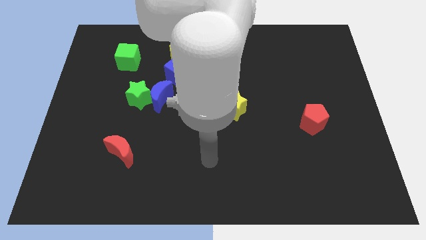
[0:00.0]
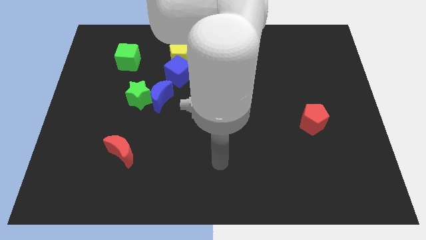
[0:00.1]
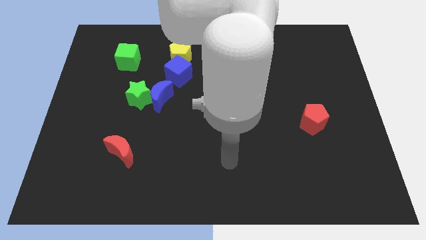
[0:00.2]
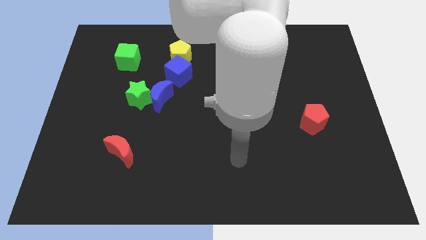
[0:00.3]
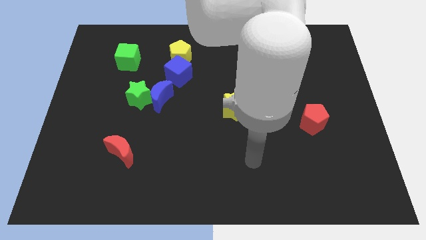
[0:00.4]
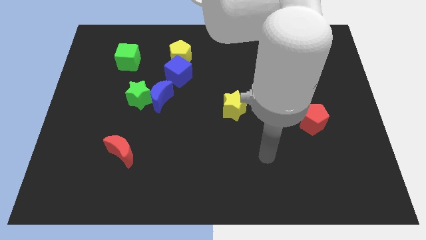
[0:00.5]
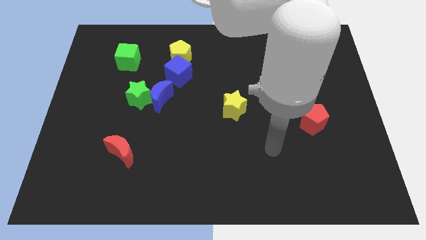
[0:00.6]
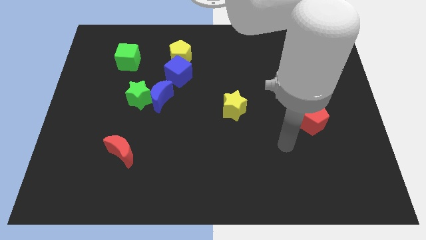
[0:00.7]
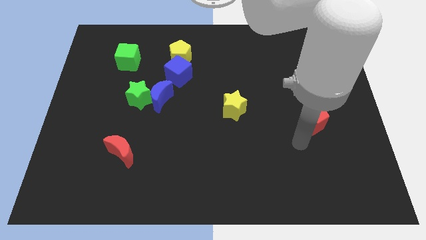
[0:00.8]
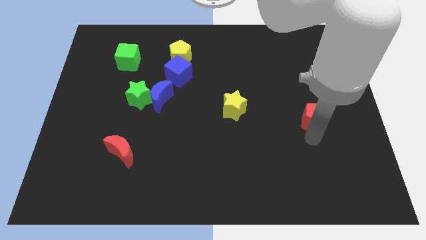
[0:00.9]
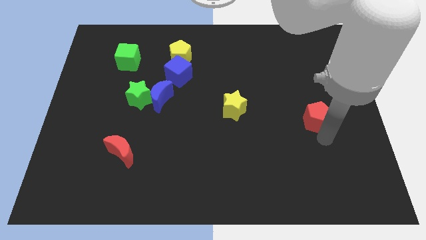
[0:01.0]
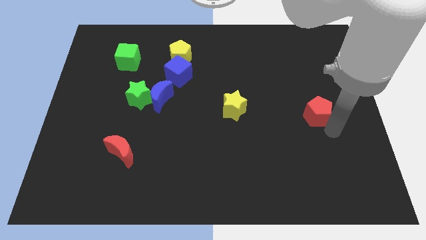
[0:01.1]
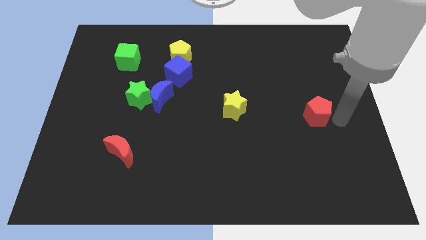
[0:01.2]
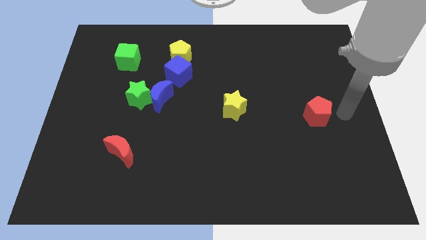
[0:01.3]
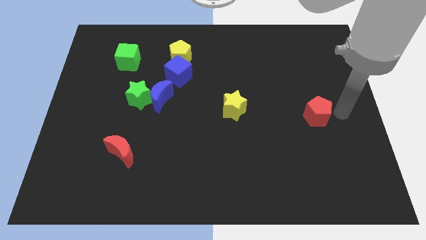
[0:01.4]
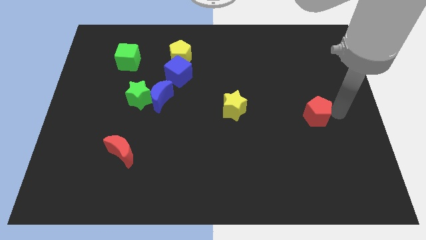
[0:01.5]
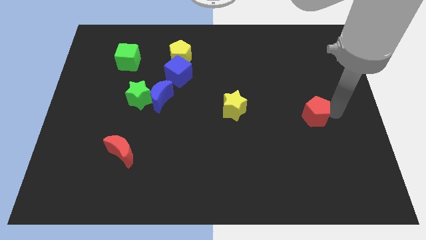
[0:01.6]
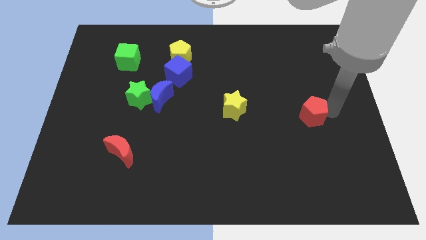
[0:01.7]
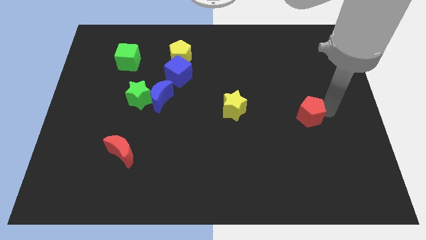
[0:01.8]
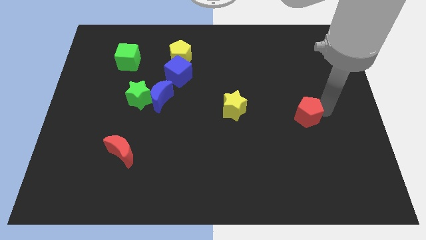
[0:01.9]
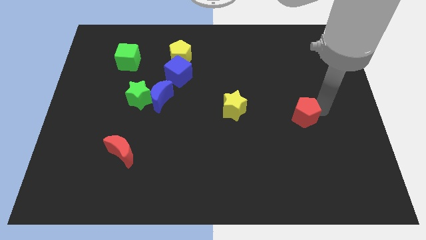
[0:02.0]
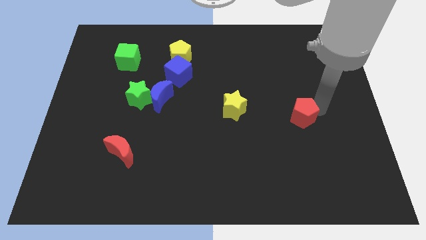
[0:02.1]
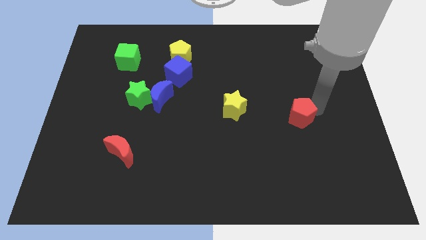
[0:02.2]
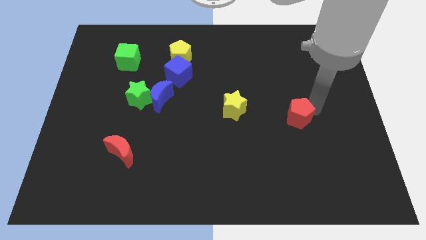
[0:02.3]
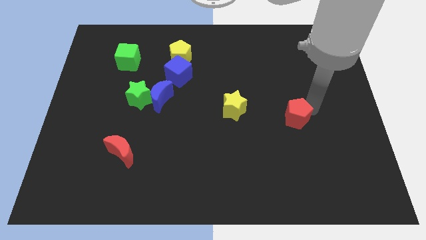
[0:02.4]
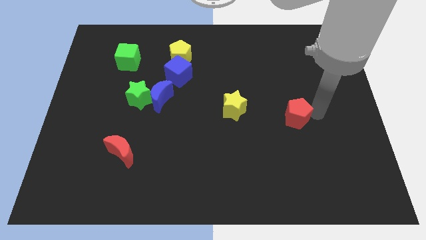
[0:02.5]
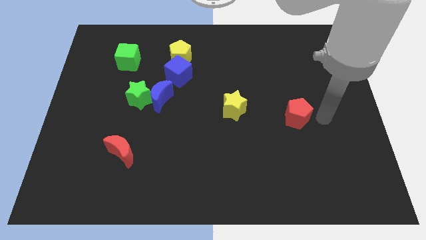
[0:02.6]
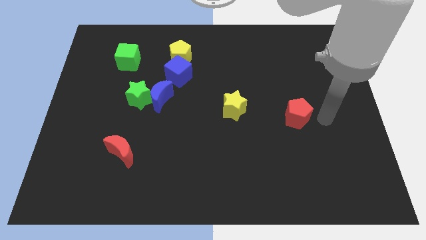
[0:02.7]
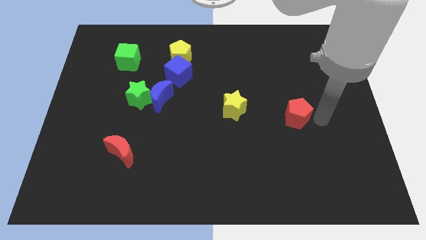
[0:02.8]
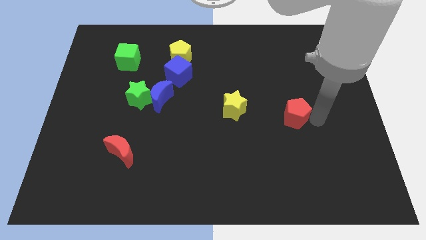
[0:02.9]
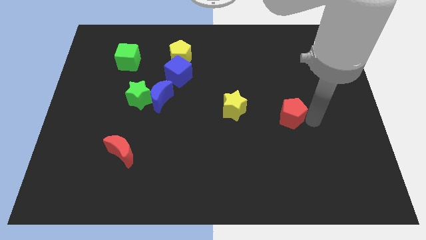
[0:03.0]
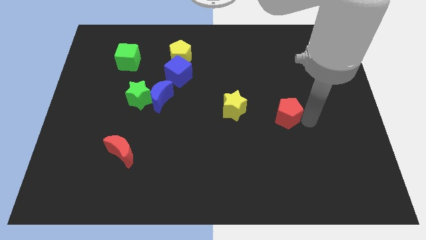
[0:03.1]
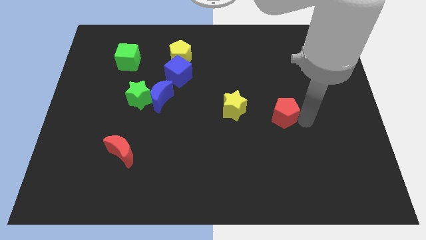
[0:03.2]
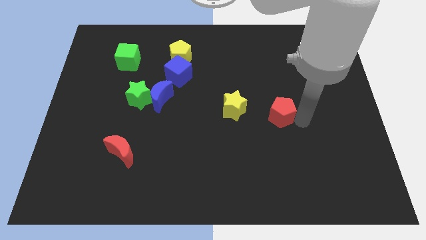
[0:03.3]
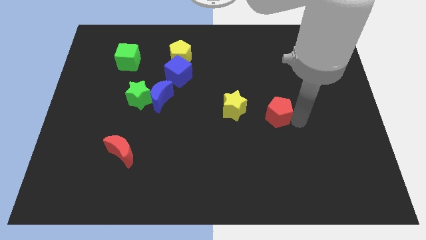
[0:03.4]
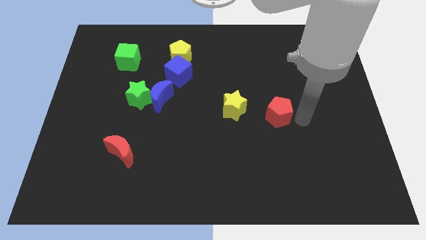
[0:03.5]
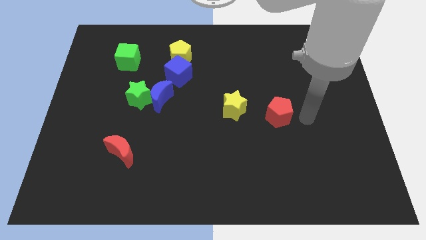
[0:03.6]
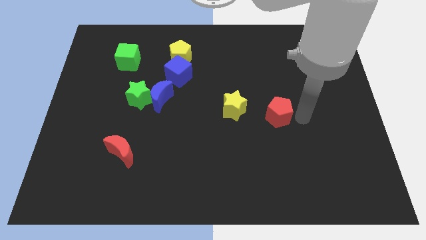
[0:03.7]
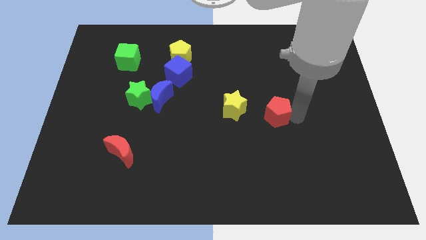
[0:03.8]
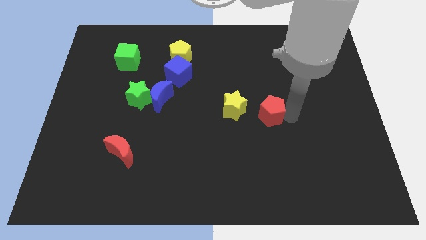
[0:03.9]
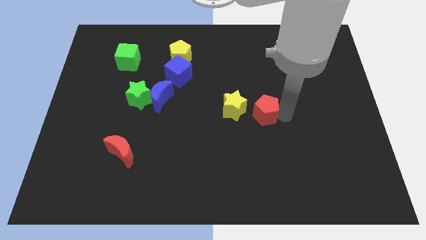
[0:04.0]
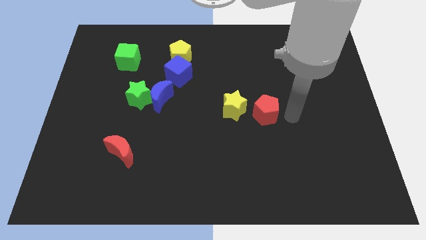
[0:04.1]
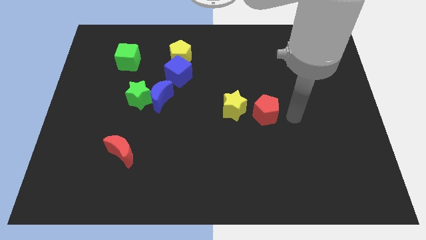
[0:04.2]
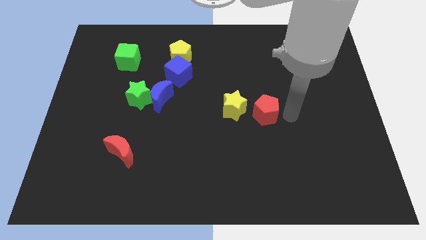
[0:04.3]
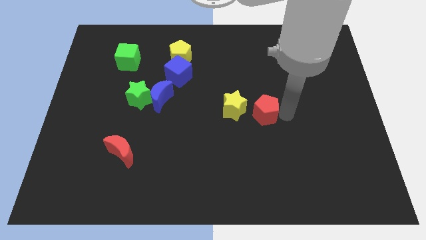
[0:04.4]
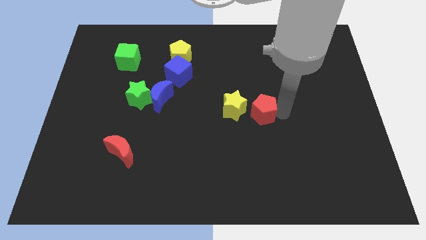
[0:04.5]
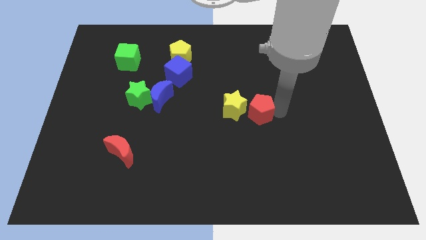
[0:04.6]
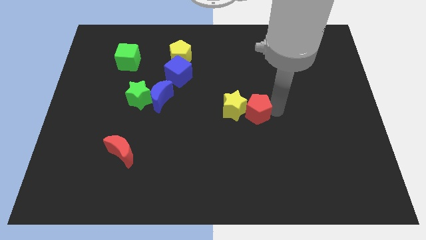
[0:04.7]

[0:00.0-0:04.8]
move the red pentagon close to the yellow star

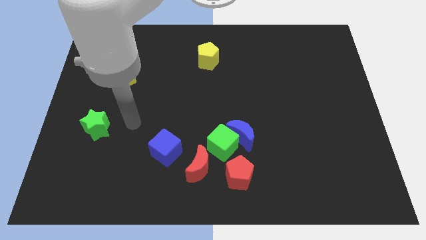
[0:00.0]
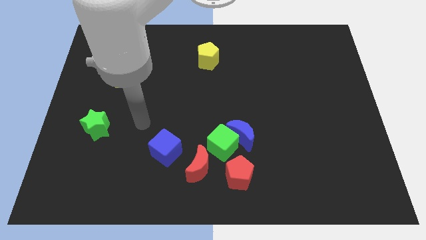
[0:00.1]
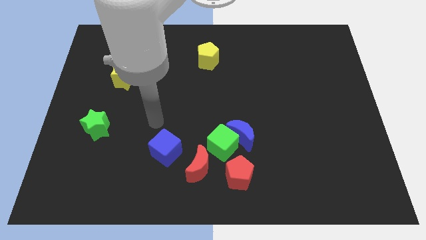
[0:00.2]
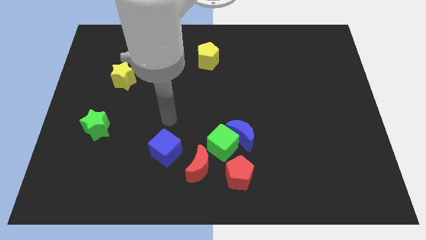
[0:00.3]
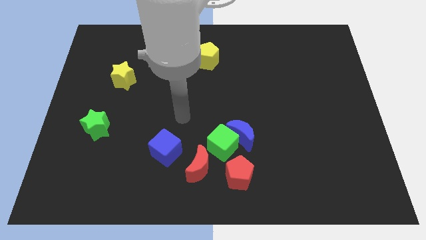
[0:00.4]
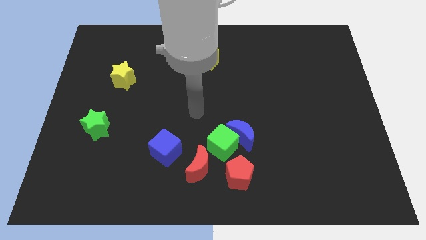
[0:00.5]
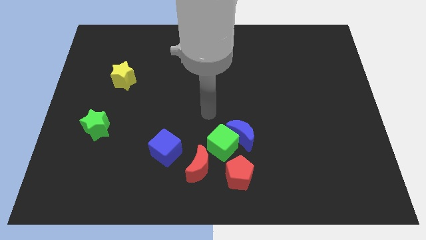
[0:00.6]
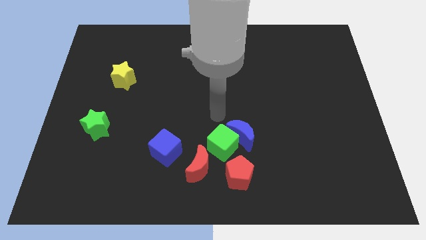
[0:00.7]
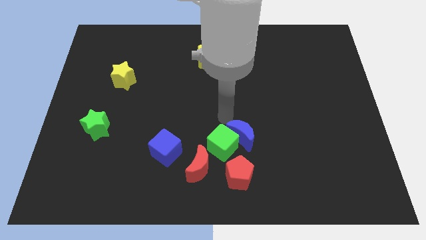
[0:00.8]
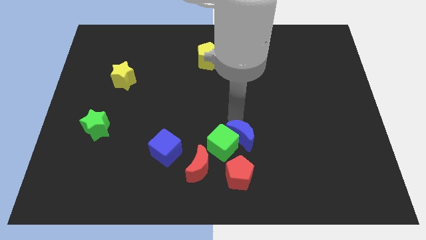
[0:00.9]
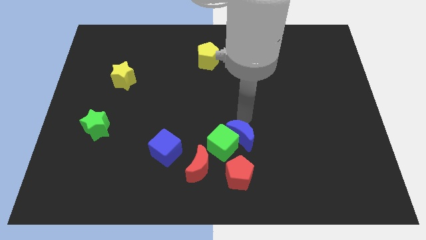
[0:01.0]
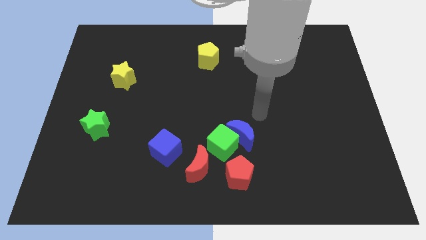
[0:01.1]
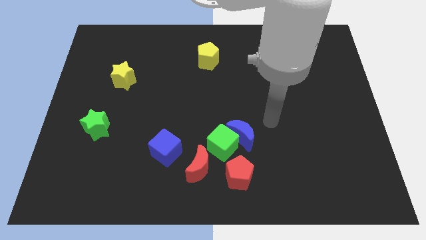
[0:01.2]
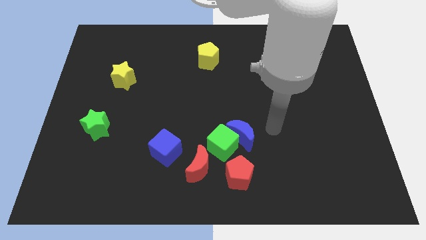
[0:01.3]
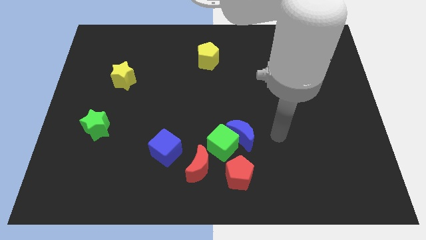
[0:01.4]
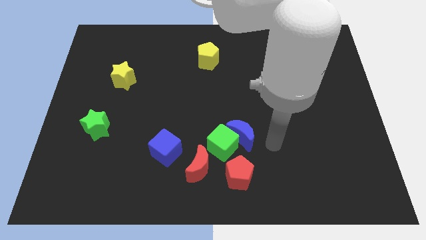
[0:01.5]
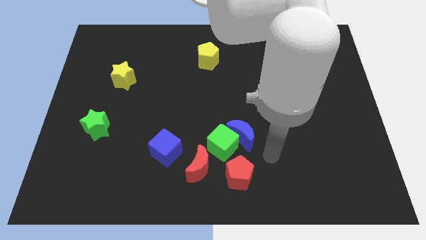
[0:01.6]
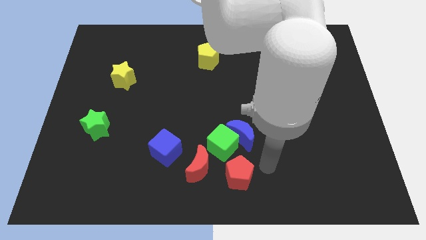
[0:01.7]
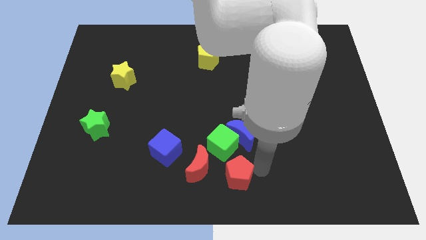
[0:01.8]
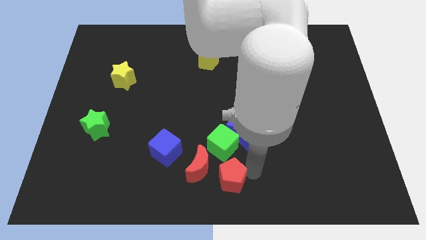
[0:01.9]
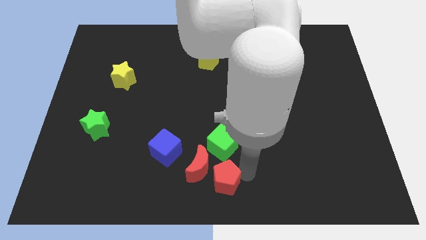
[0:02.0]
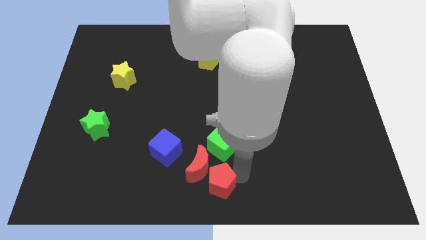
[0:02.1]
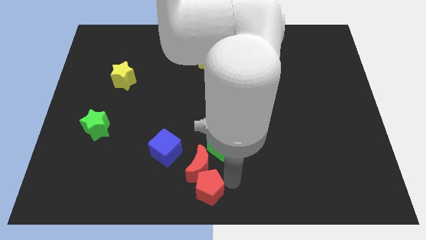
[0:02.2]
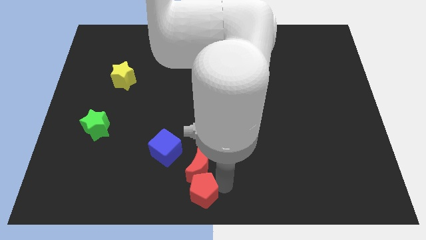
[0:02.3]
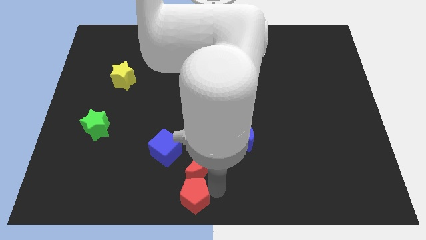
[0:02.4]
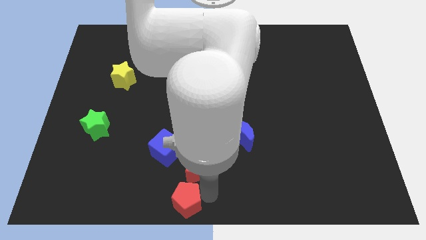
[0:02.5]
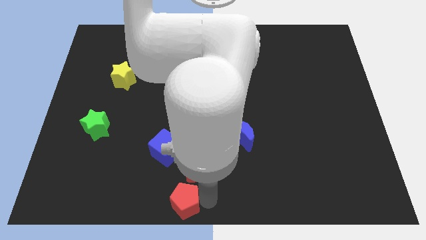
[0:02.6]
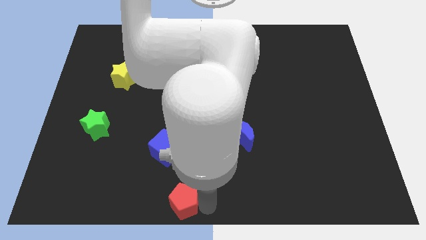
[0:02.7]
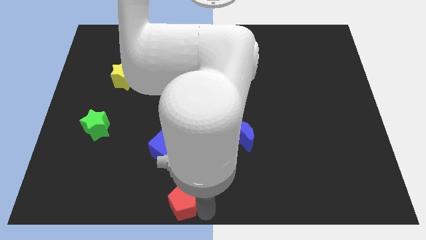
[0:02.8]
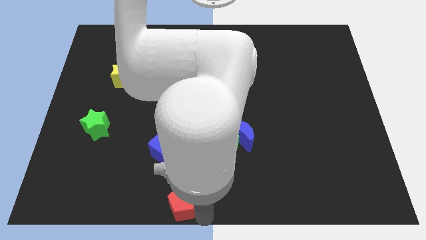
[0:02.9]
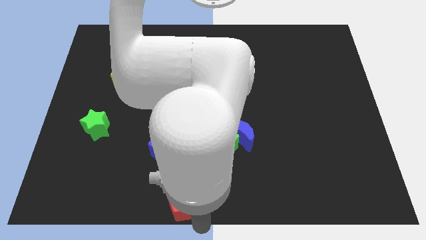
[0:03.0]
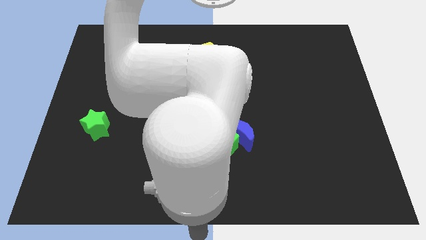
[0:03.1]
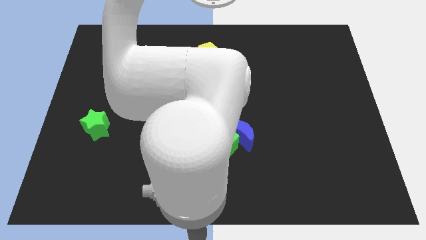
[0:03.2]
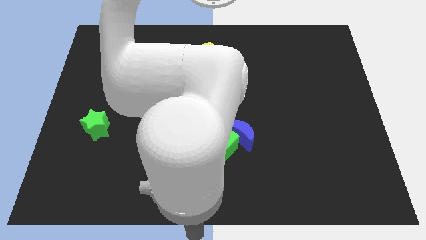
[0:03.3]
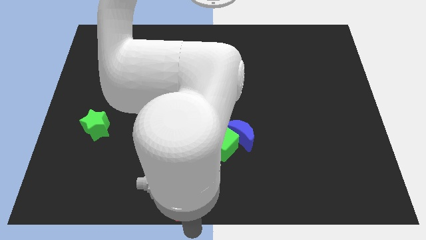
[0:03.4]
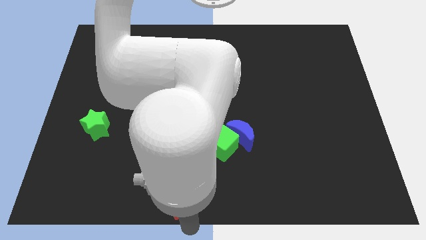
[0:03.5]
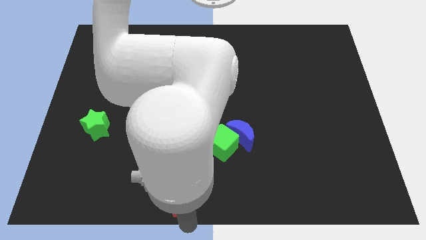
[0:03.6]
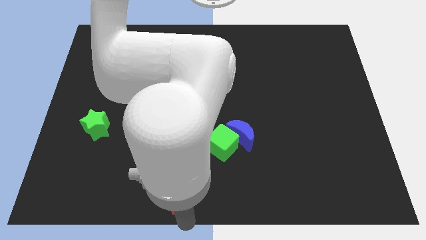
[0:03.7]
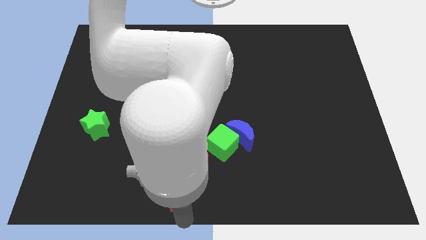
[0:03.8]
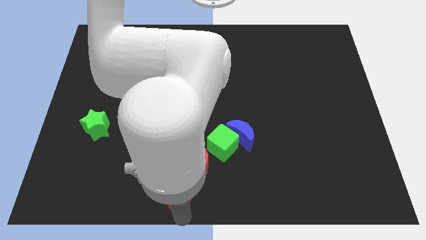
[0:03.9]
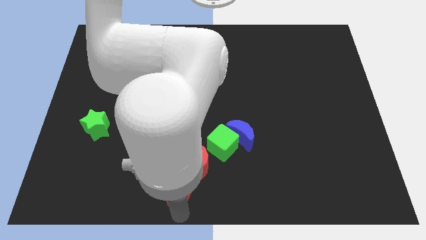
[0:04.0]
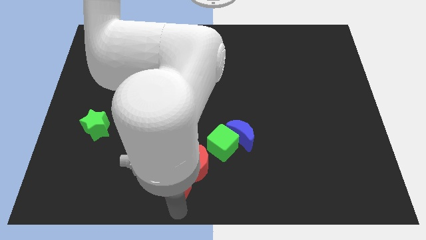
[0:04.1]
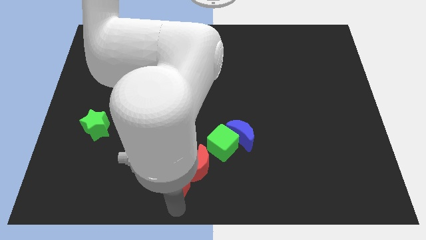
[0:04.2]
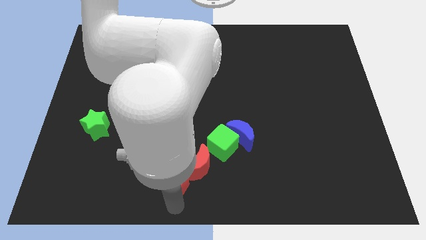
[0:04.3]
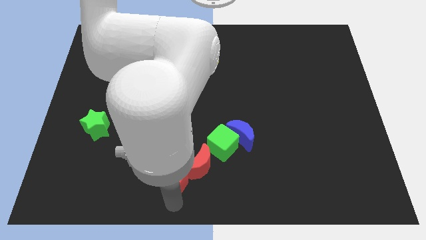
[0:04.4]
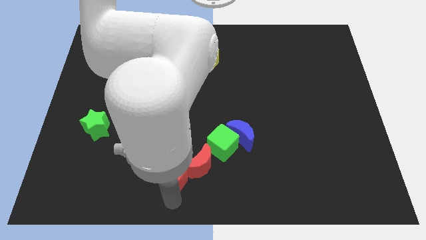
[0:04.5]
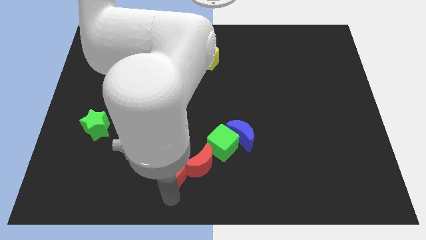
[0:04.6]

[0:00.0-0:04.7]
slide the red pentagon to the blue cube
